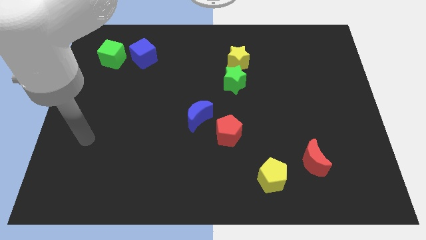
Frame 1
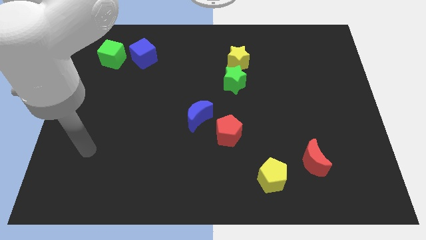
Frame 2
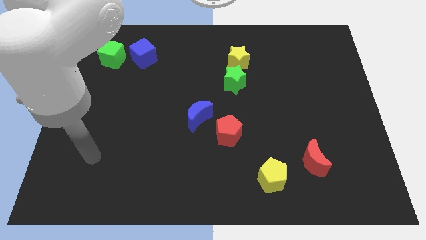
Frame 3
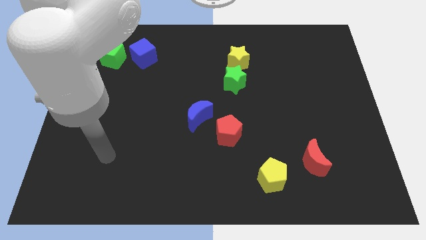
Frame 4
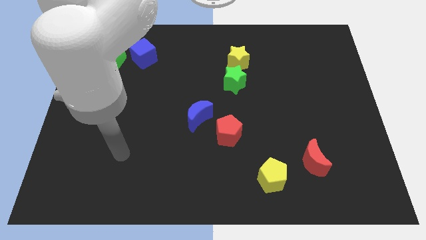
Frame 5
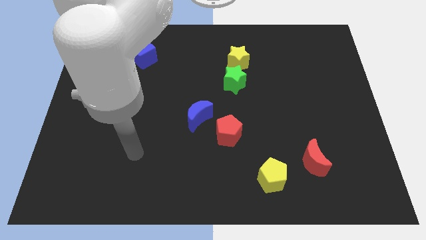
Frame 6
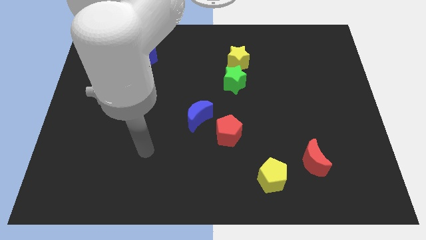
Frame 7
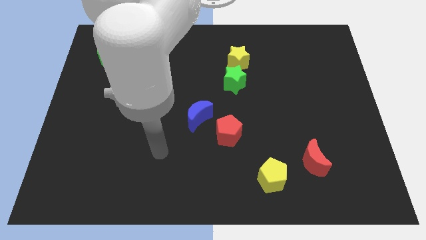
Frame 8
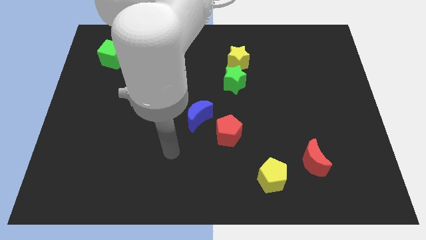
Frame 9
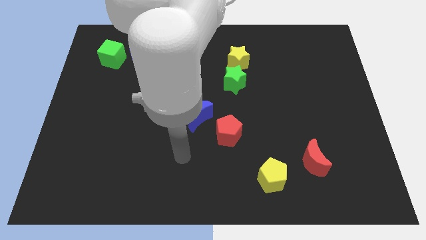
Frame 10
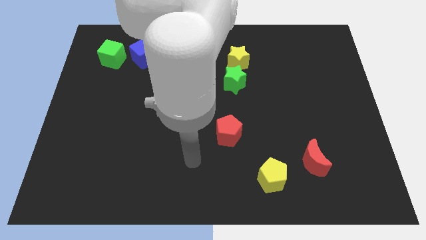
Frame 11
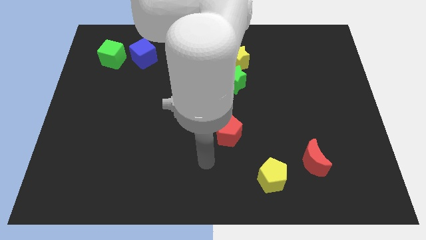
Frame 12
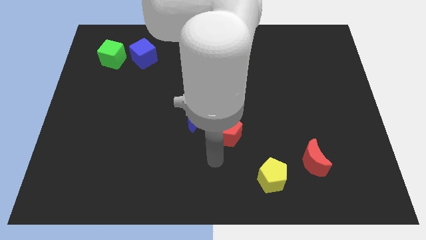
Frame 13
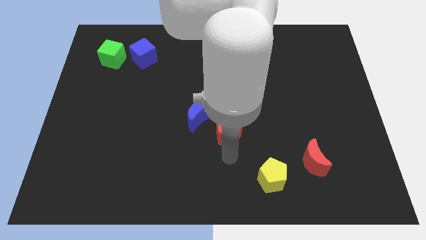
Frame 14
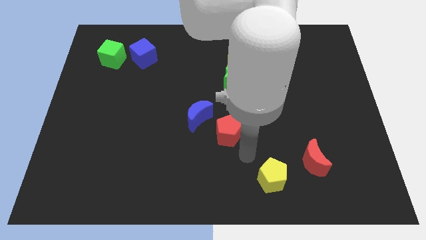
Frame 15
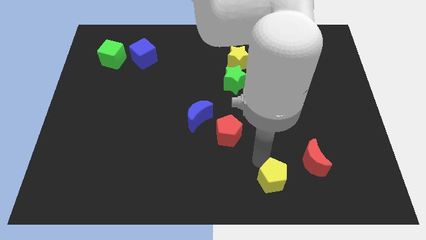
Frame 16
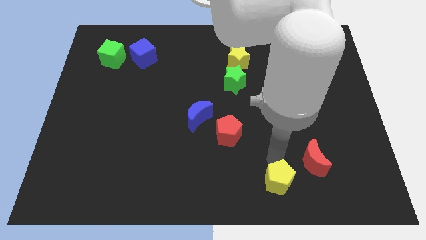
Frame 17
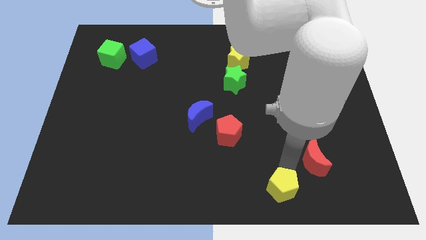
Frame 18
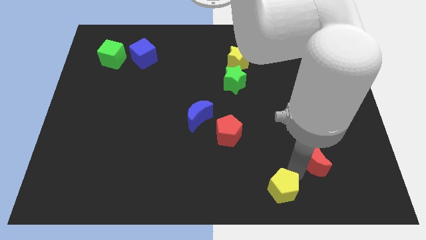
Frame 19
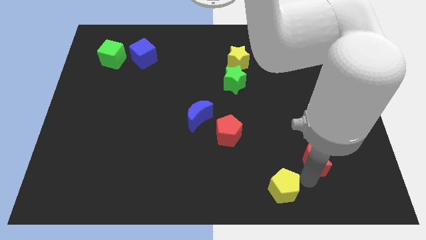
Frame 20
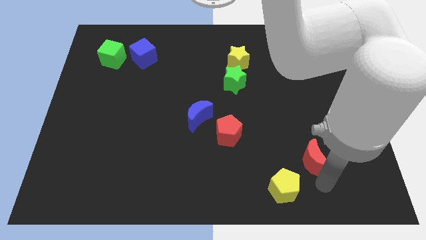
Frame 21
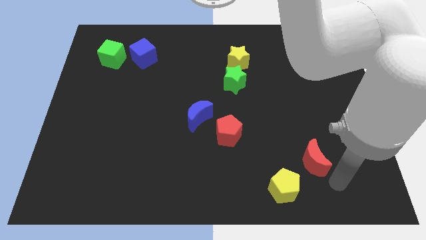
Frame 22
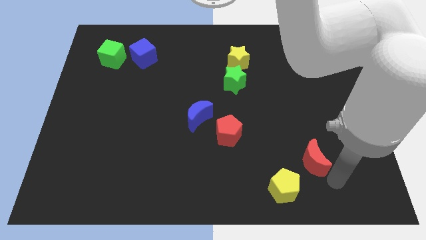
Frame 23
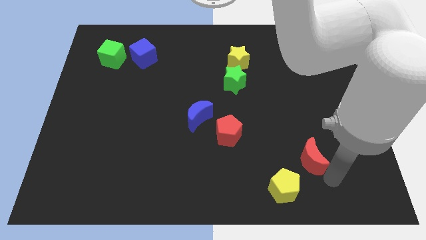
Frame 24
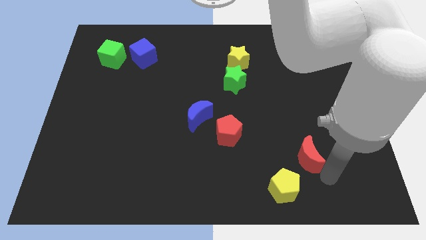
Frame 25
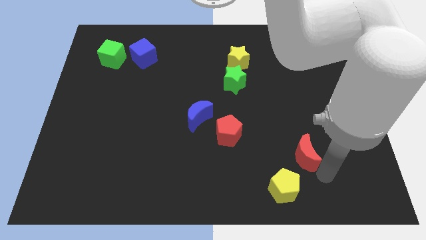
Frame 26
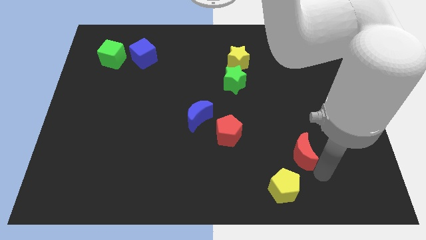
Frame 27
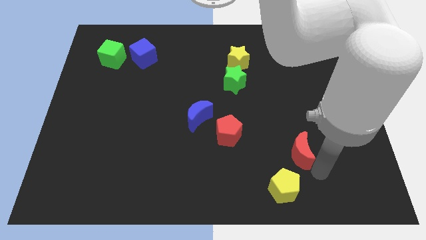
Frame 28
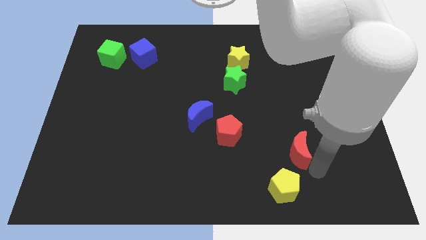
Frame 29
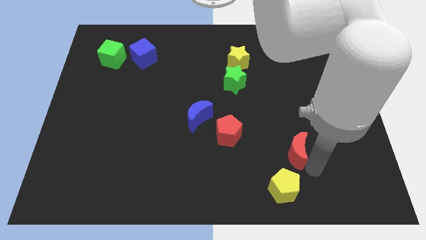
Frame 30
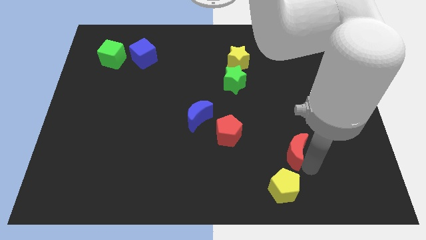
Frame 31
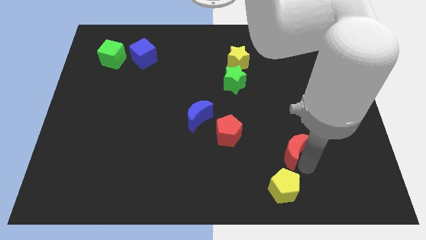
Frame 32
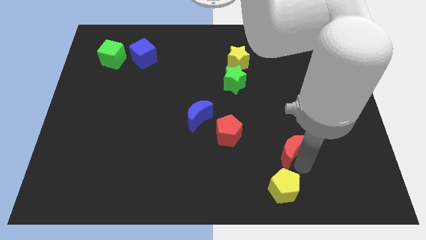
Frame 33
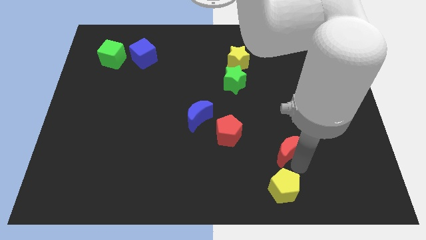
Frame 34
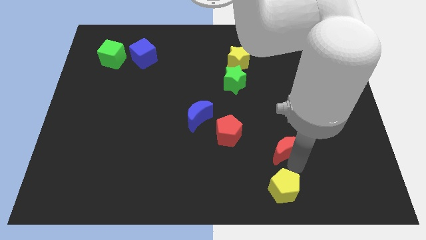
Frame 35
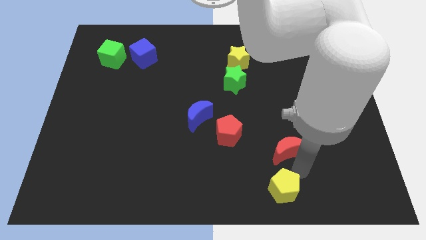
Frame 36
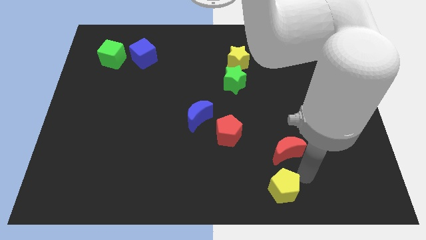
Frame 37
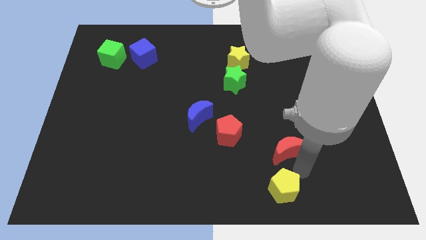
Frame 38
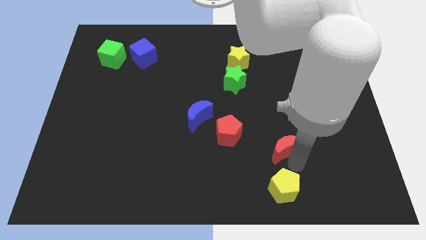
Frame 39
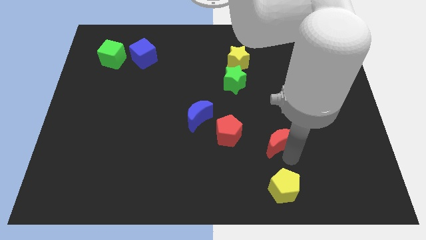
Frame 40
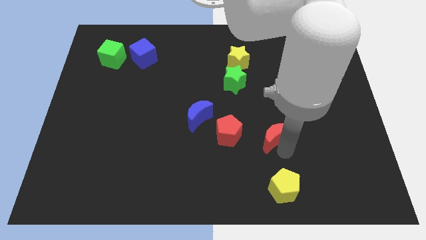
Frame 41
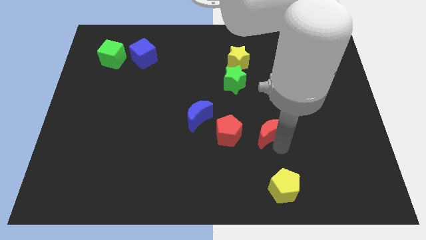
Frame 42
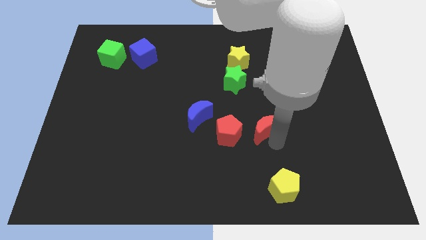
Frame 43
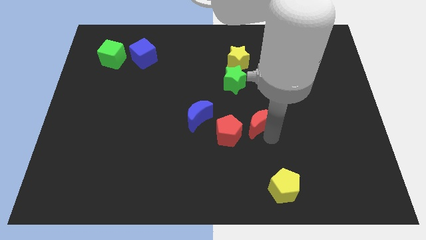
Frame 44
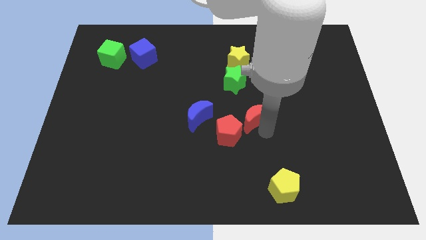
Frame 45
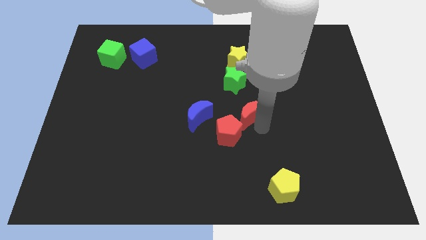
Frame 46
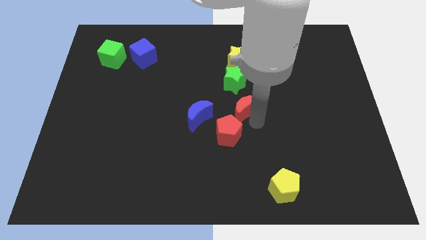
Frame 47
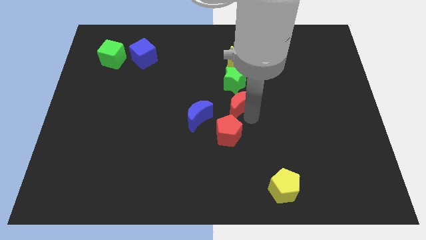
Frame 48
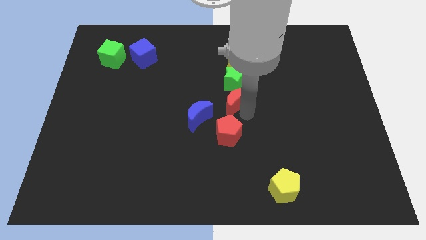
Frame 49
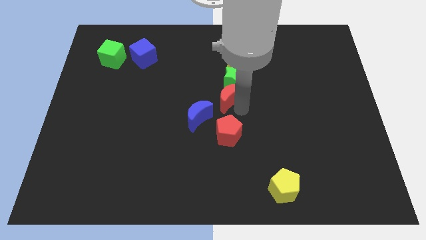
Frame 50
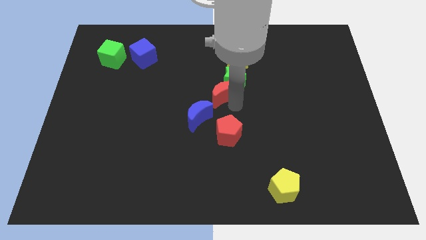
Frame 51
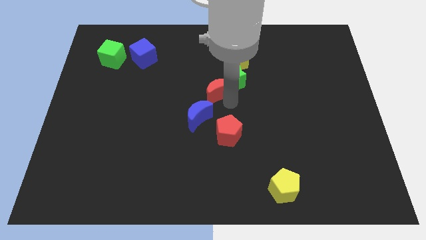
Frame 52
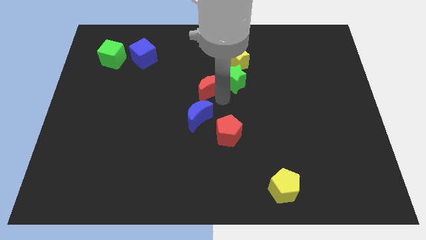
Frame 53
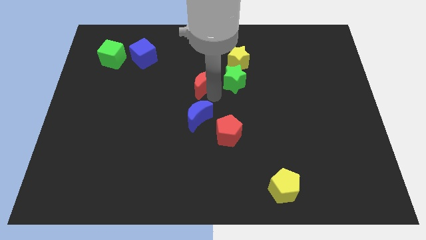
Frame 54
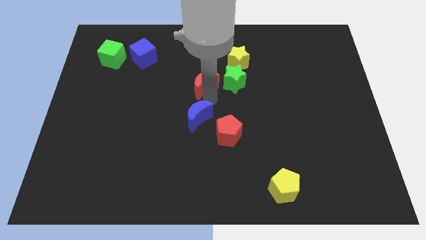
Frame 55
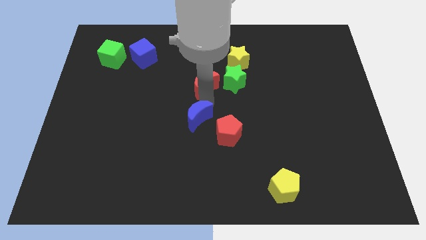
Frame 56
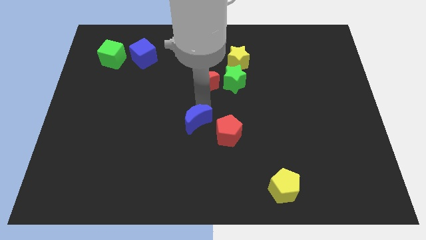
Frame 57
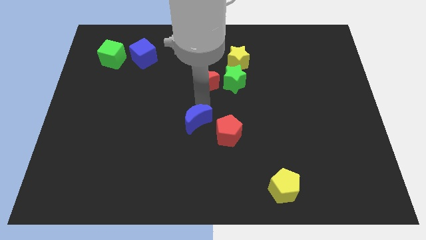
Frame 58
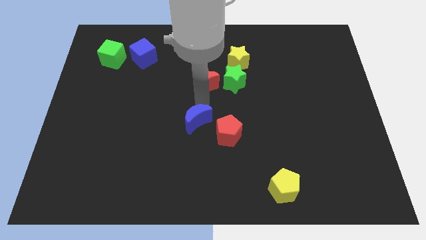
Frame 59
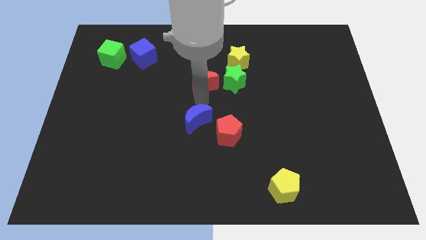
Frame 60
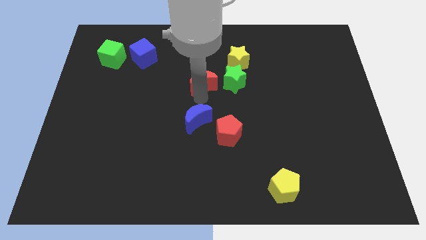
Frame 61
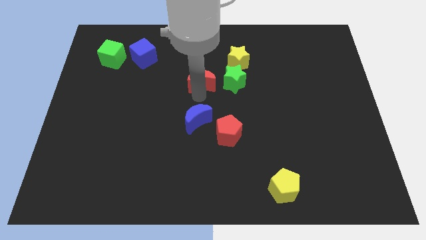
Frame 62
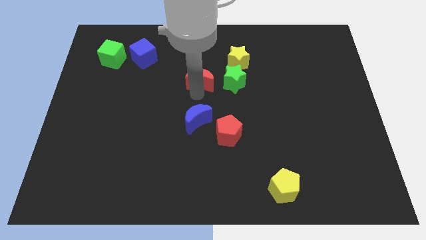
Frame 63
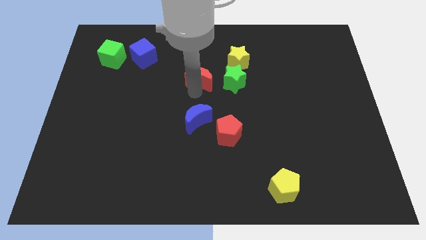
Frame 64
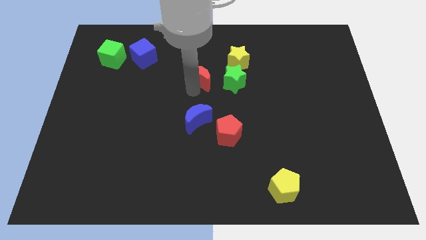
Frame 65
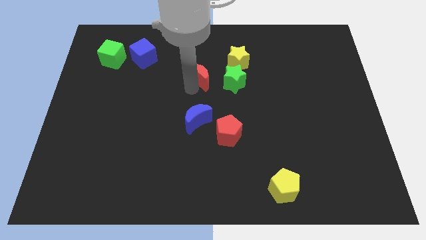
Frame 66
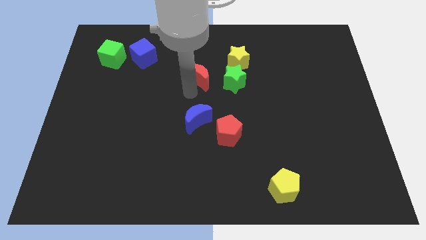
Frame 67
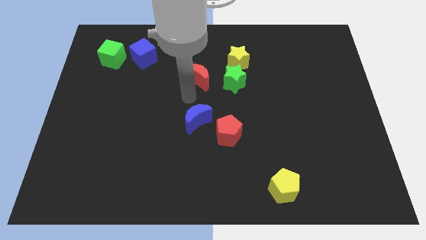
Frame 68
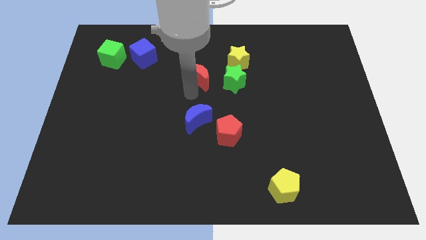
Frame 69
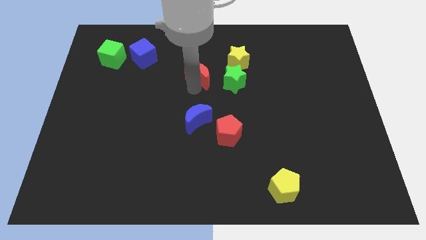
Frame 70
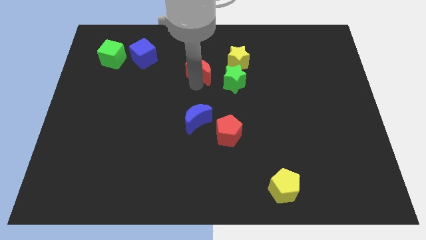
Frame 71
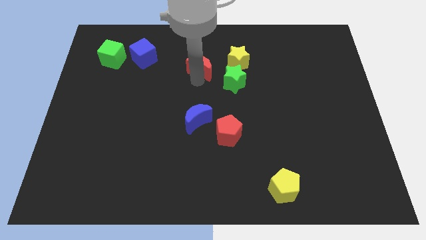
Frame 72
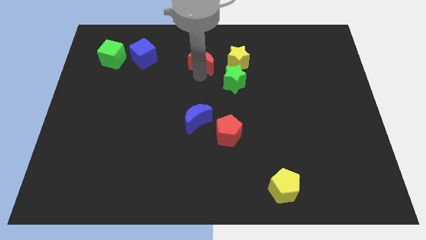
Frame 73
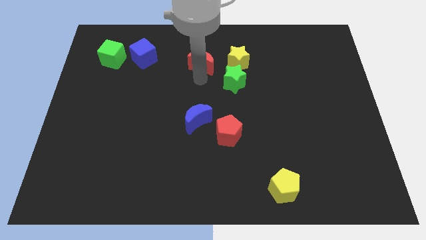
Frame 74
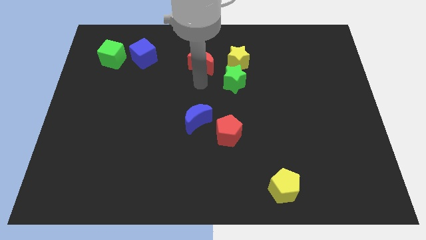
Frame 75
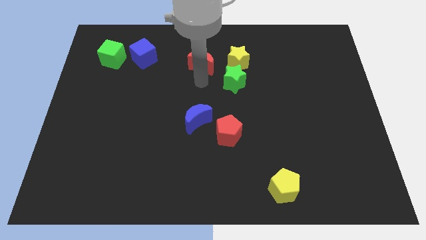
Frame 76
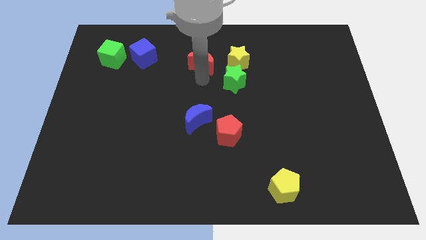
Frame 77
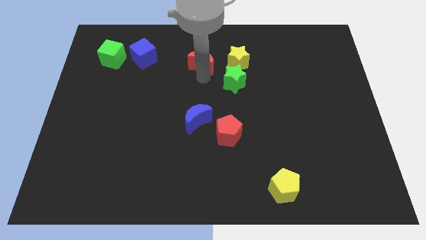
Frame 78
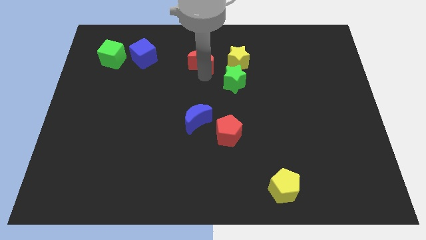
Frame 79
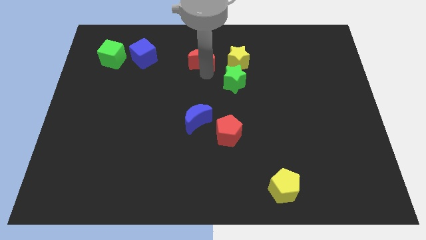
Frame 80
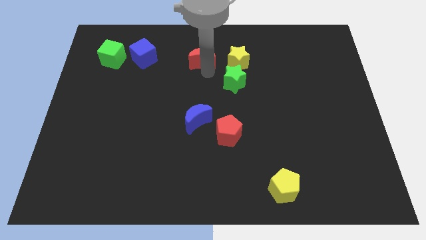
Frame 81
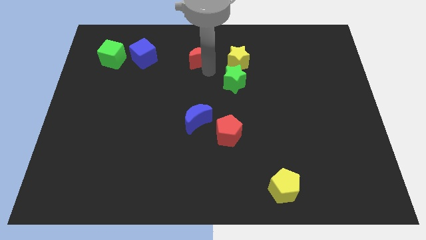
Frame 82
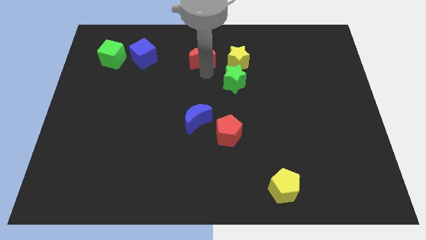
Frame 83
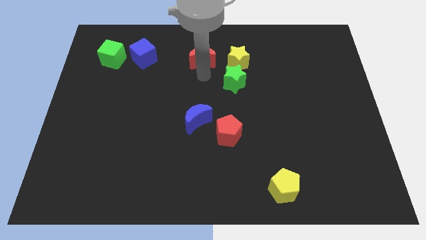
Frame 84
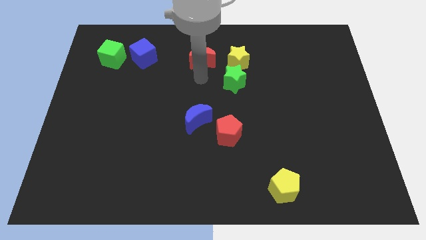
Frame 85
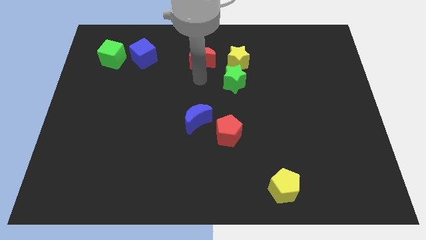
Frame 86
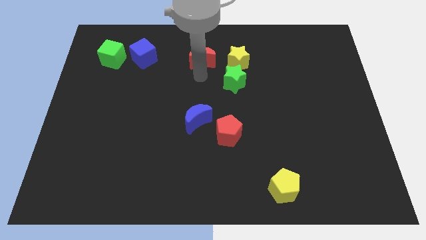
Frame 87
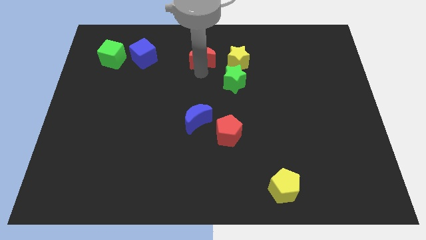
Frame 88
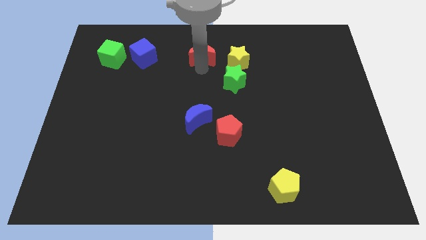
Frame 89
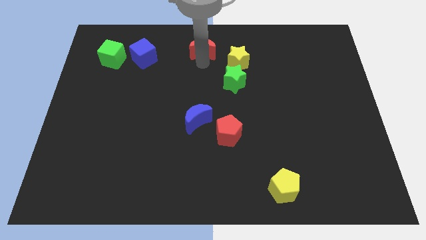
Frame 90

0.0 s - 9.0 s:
put the red moon to the towards your base
